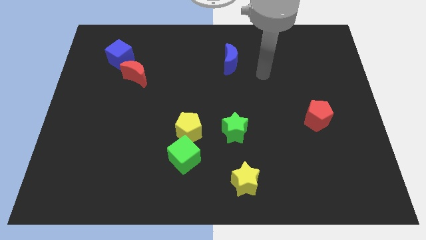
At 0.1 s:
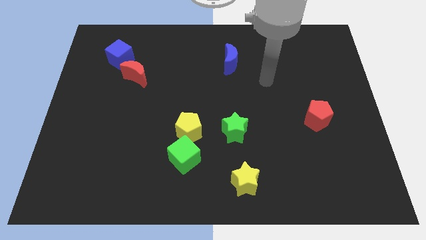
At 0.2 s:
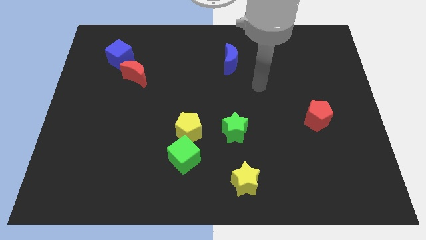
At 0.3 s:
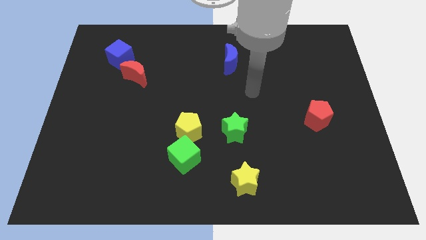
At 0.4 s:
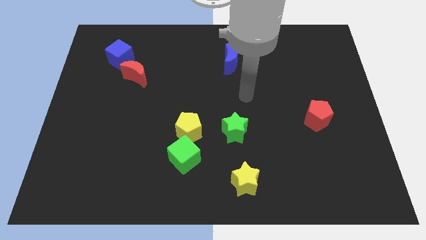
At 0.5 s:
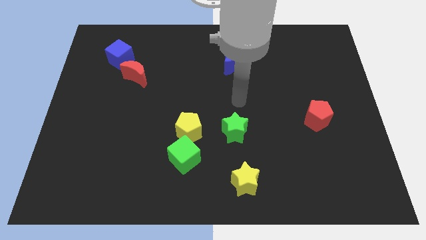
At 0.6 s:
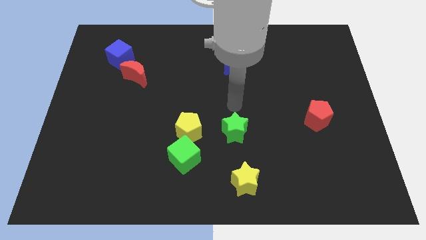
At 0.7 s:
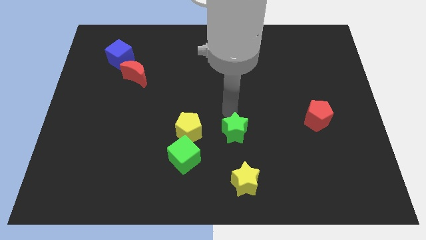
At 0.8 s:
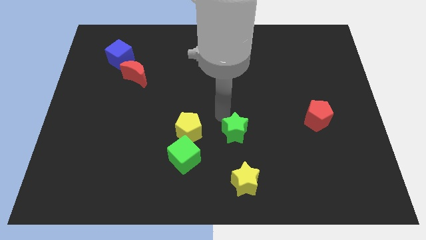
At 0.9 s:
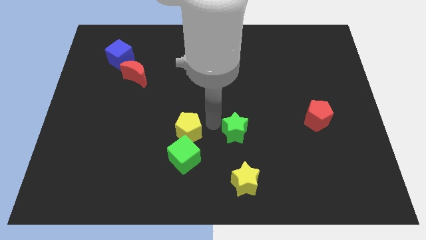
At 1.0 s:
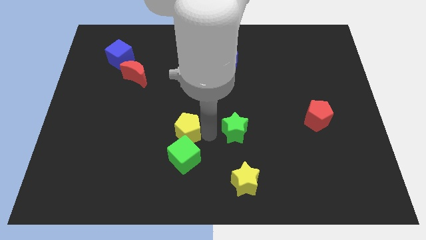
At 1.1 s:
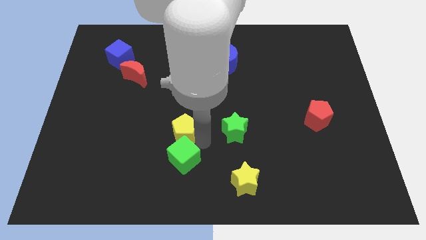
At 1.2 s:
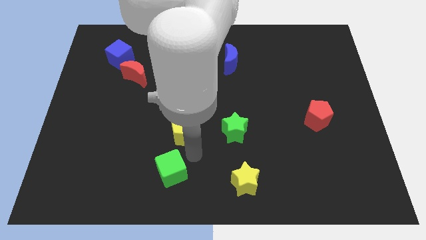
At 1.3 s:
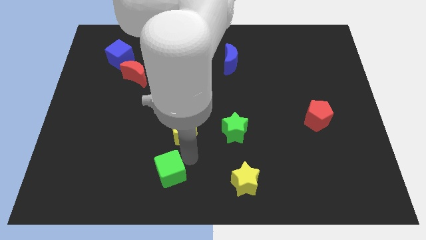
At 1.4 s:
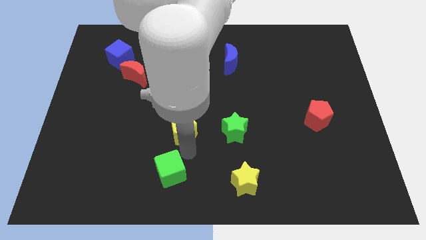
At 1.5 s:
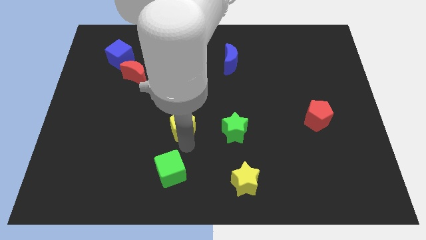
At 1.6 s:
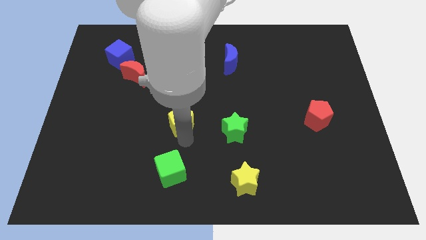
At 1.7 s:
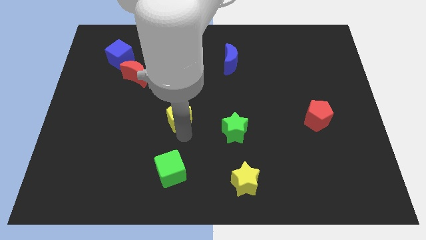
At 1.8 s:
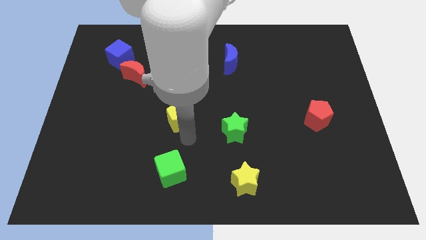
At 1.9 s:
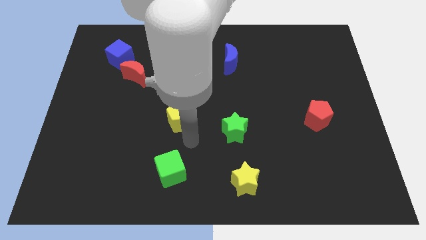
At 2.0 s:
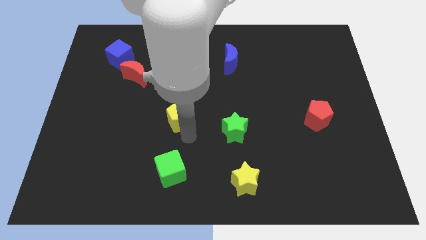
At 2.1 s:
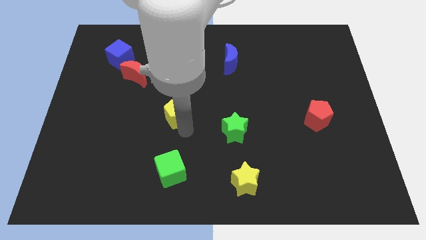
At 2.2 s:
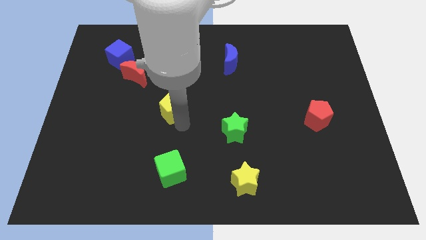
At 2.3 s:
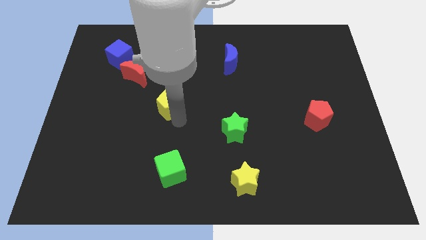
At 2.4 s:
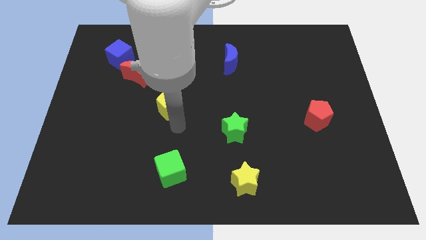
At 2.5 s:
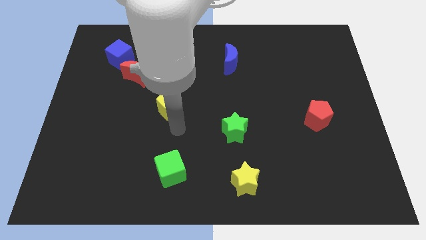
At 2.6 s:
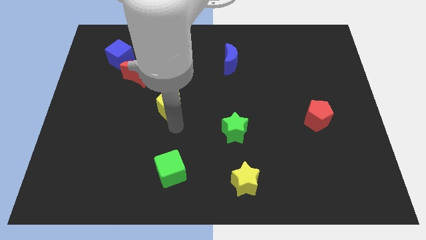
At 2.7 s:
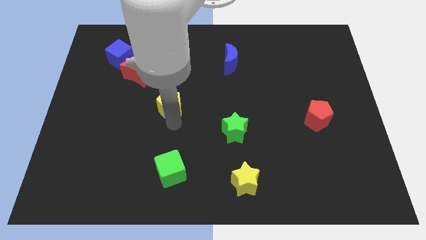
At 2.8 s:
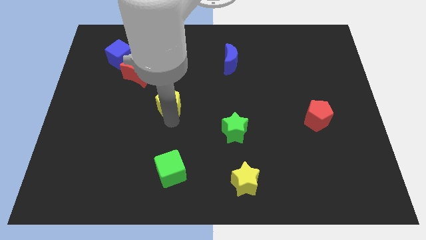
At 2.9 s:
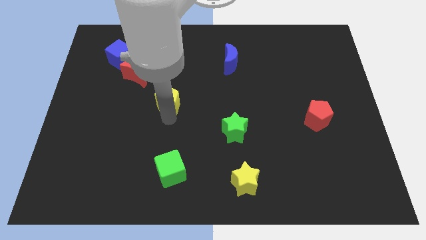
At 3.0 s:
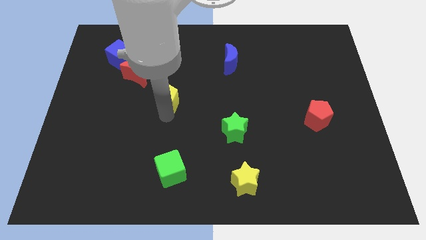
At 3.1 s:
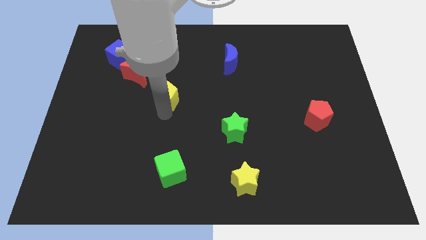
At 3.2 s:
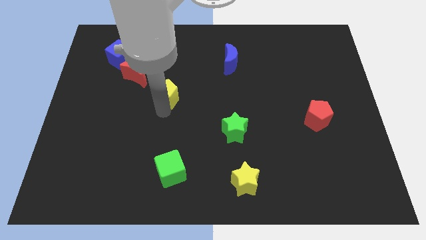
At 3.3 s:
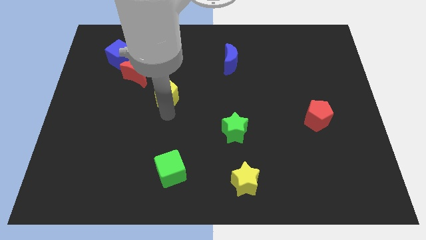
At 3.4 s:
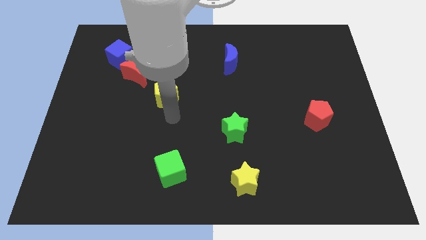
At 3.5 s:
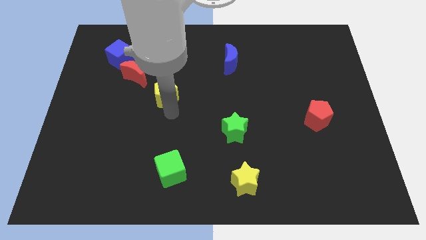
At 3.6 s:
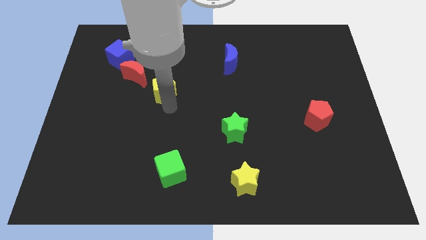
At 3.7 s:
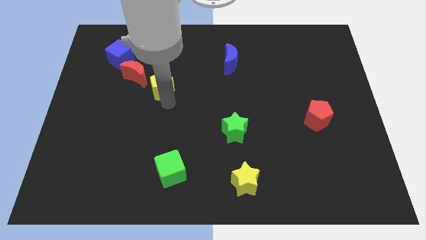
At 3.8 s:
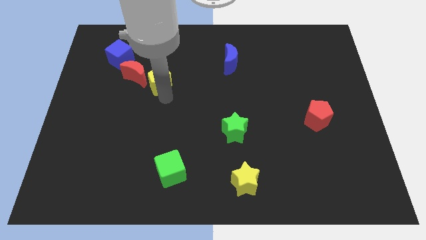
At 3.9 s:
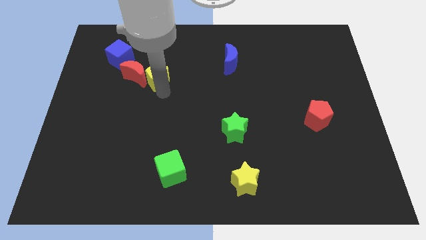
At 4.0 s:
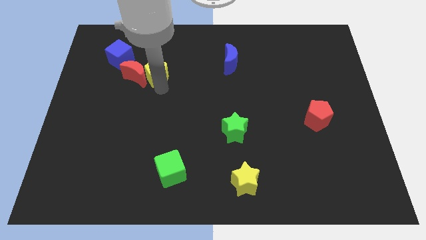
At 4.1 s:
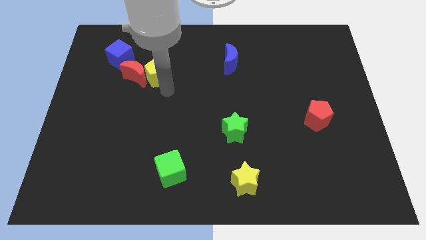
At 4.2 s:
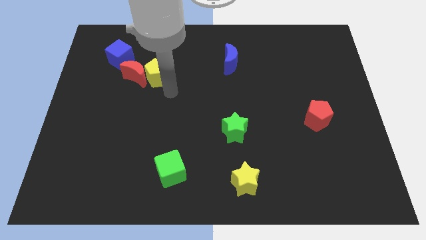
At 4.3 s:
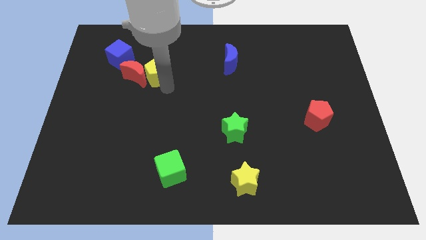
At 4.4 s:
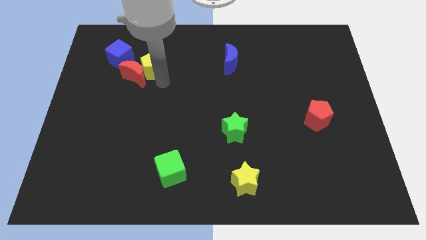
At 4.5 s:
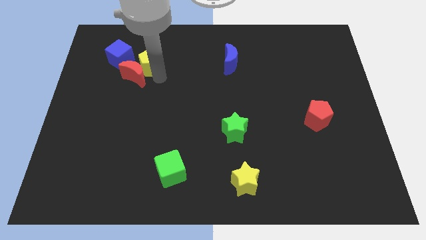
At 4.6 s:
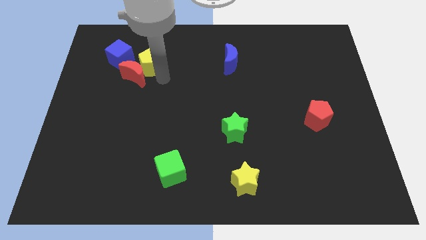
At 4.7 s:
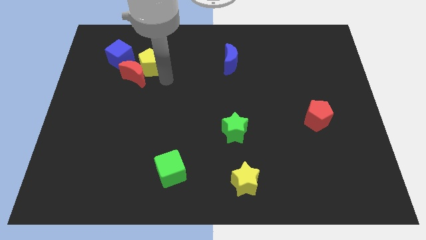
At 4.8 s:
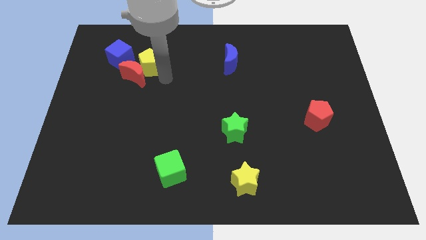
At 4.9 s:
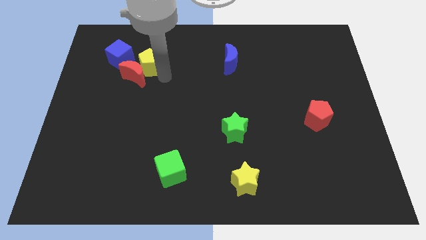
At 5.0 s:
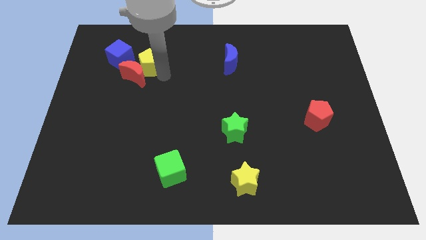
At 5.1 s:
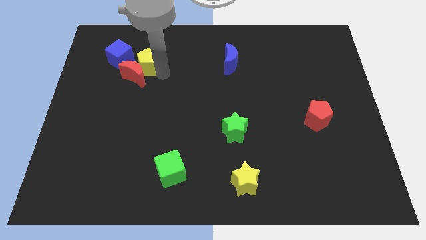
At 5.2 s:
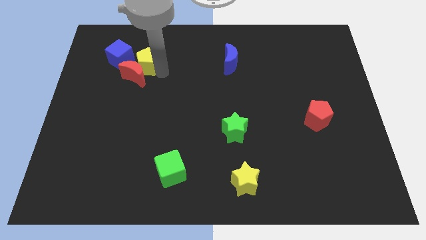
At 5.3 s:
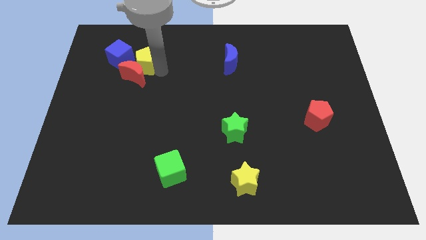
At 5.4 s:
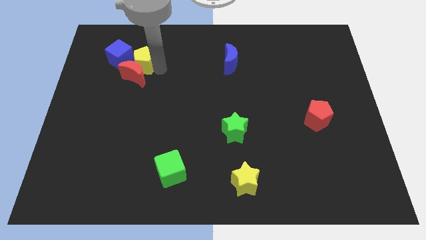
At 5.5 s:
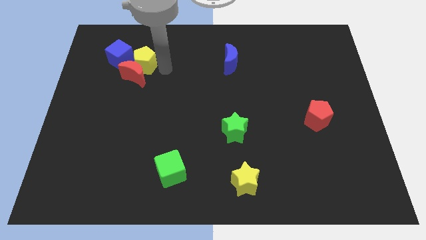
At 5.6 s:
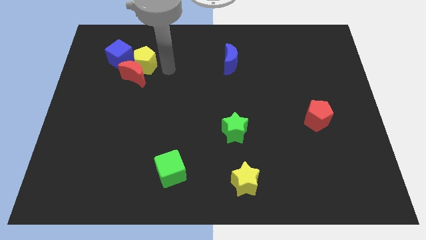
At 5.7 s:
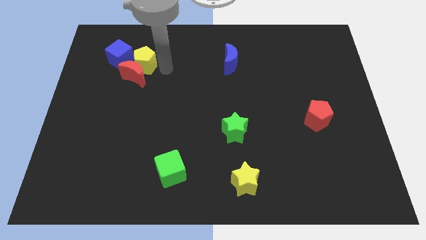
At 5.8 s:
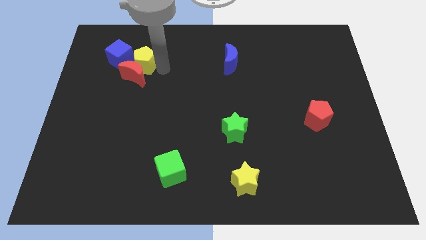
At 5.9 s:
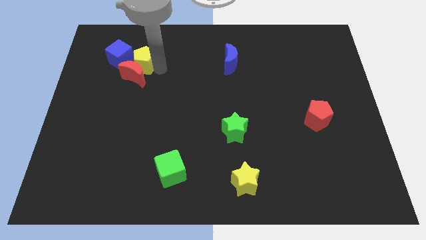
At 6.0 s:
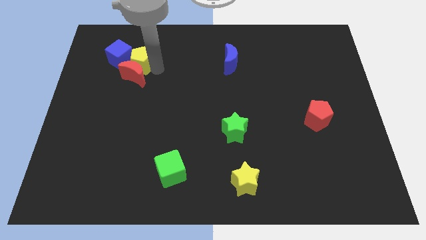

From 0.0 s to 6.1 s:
push the yellow pentagon next to the blue cube

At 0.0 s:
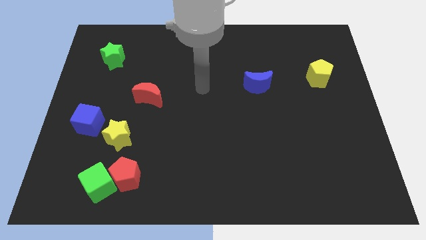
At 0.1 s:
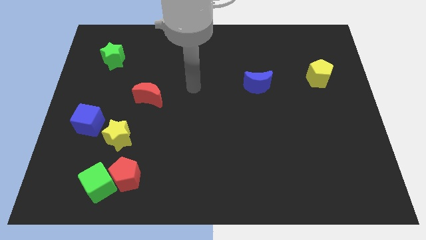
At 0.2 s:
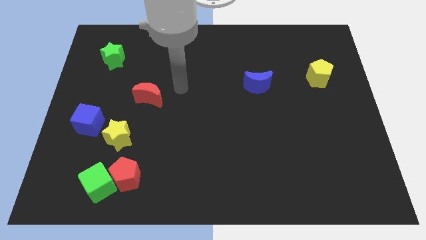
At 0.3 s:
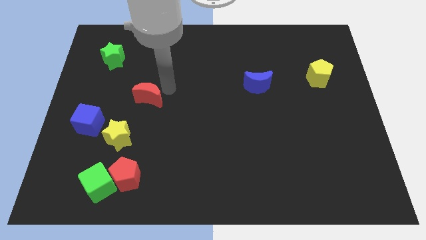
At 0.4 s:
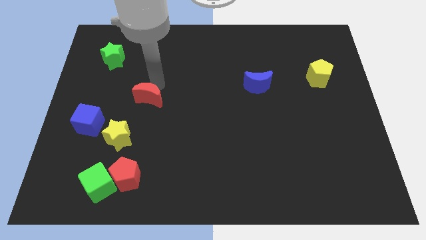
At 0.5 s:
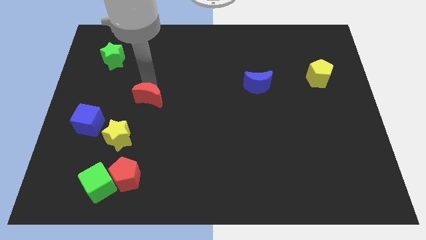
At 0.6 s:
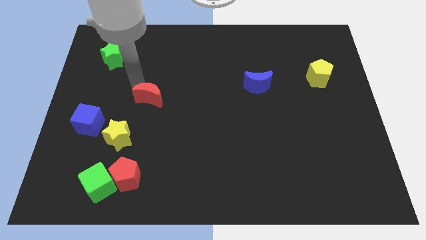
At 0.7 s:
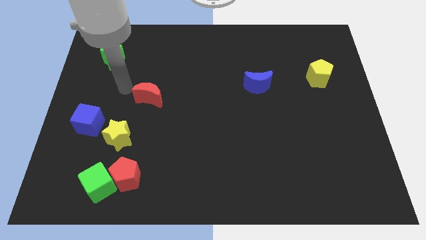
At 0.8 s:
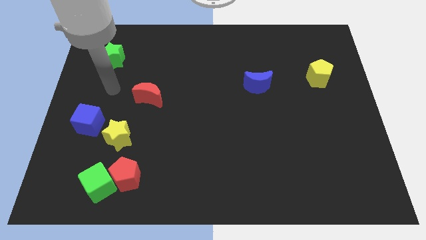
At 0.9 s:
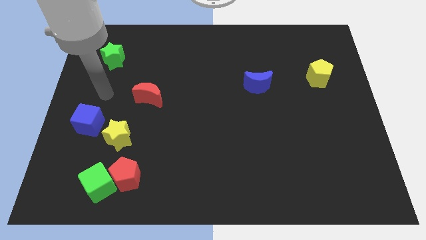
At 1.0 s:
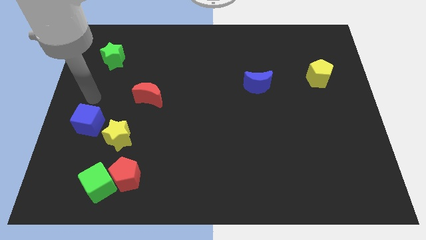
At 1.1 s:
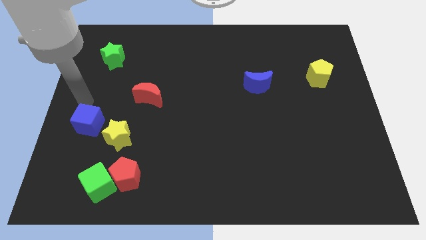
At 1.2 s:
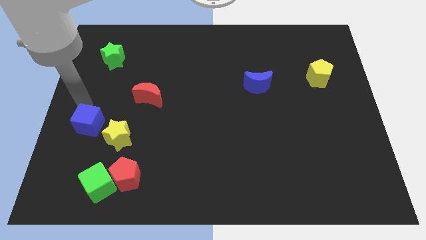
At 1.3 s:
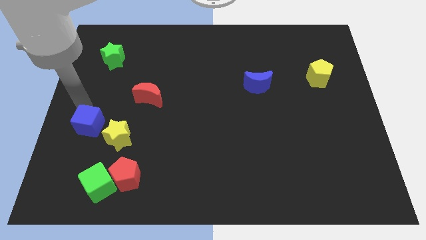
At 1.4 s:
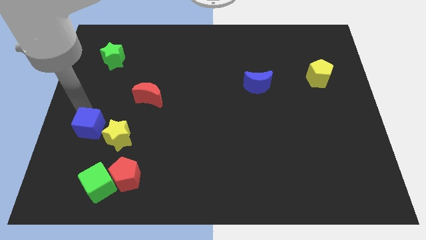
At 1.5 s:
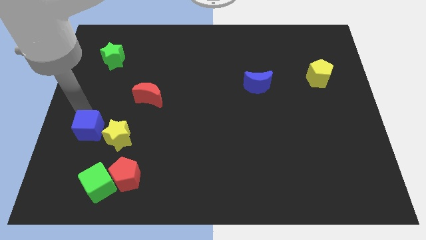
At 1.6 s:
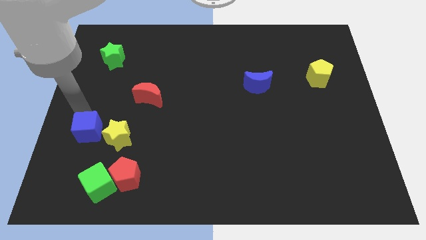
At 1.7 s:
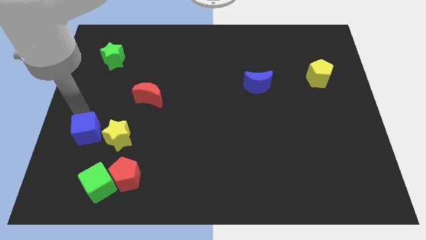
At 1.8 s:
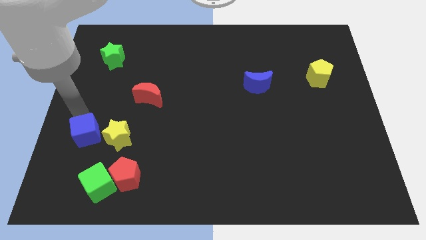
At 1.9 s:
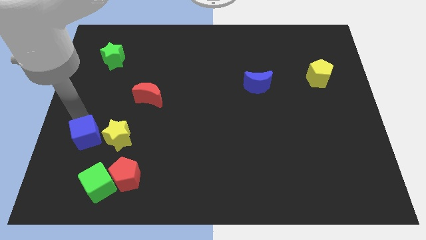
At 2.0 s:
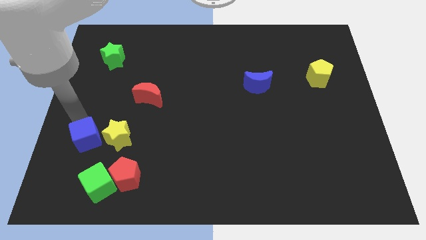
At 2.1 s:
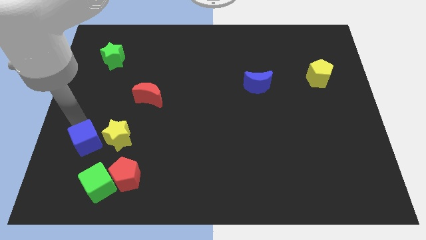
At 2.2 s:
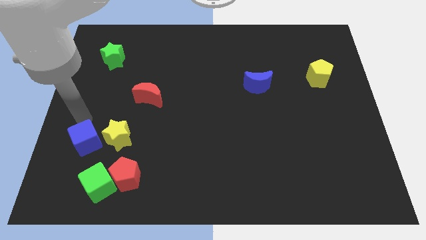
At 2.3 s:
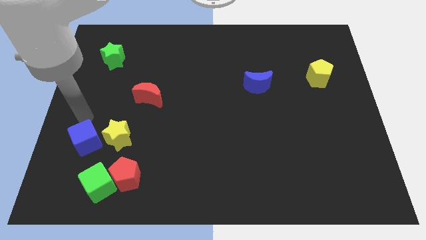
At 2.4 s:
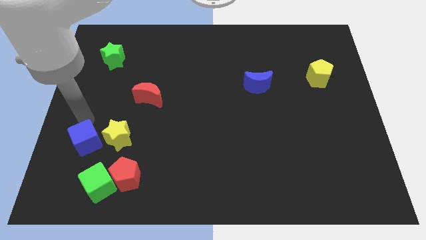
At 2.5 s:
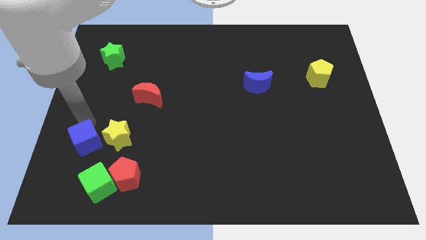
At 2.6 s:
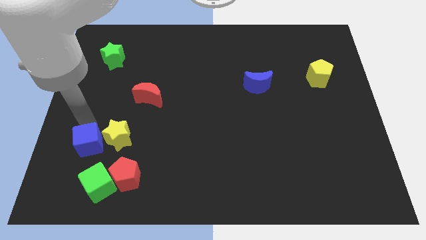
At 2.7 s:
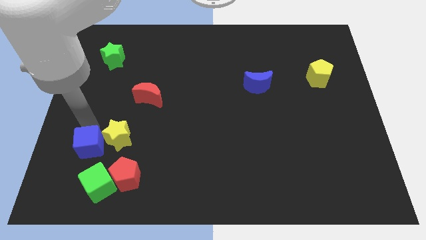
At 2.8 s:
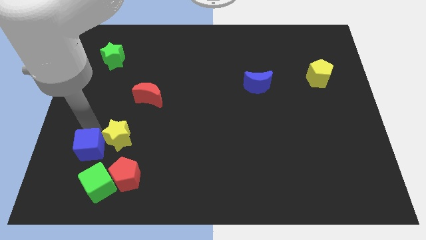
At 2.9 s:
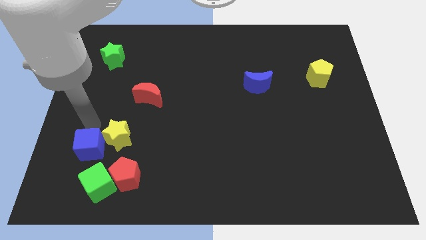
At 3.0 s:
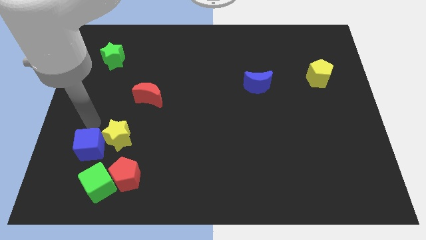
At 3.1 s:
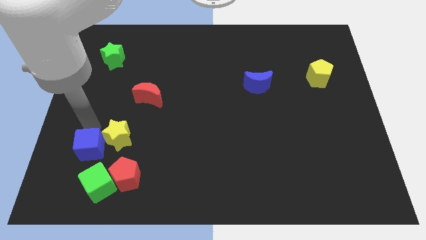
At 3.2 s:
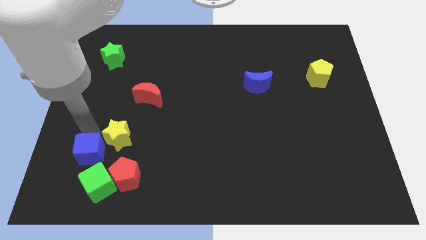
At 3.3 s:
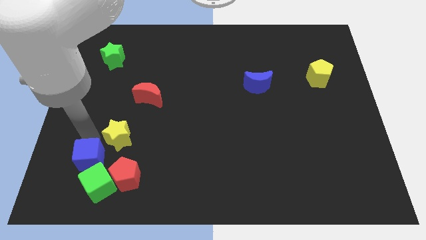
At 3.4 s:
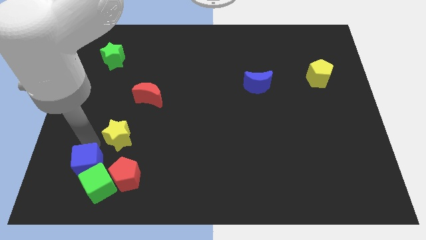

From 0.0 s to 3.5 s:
slide the blue cube towards the green cube
